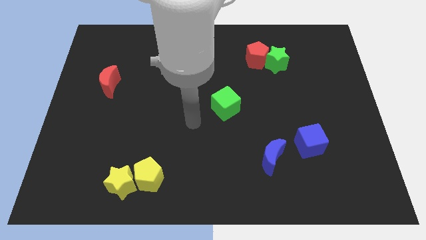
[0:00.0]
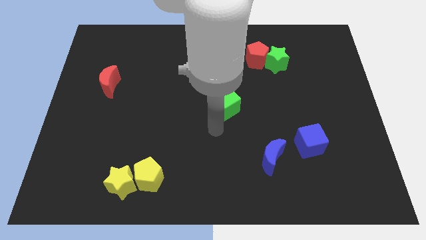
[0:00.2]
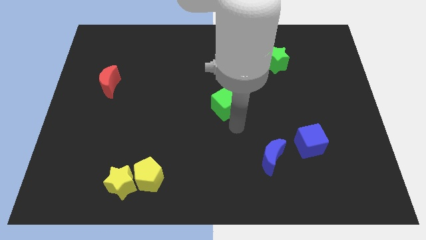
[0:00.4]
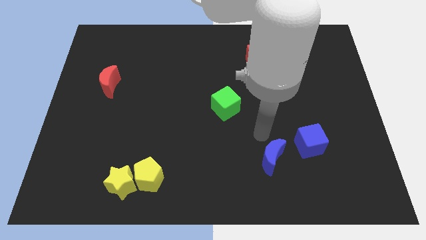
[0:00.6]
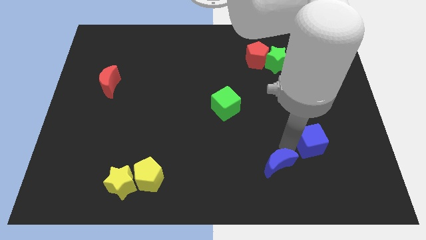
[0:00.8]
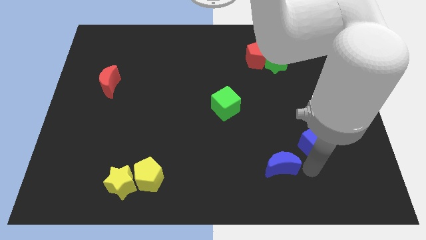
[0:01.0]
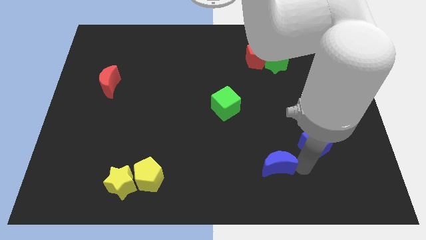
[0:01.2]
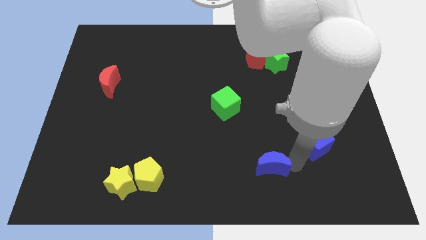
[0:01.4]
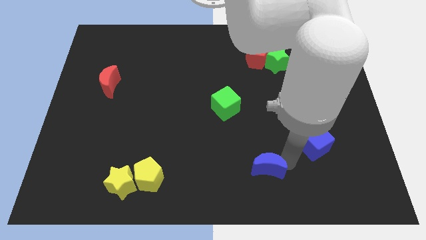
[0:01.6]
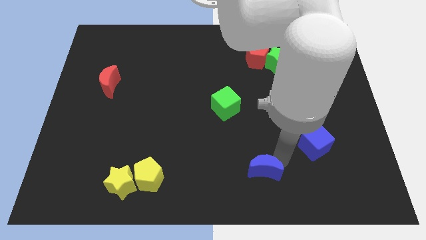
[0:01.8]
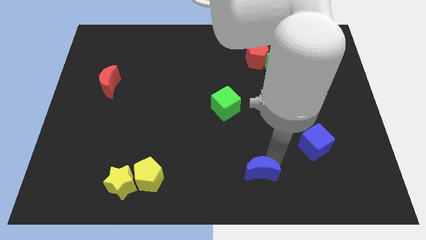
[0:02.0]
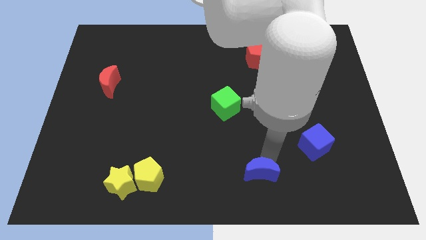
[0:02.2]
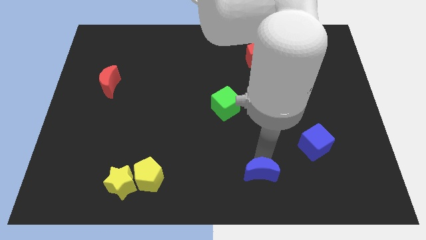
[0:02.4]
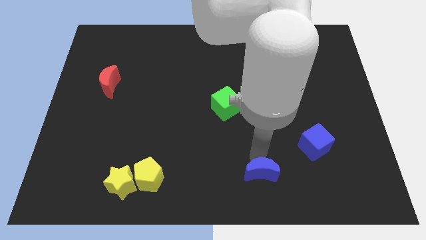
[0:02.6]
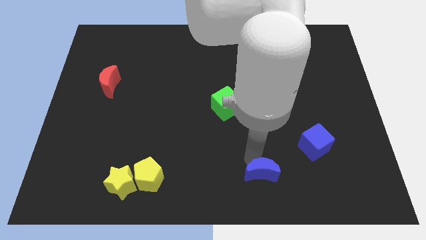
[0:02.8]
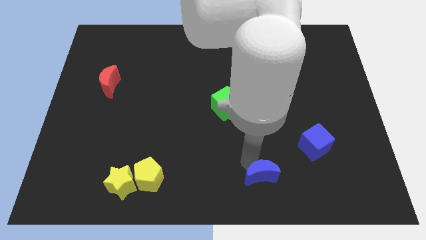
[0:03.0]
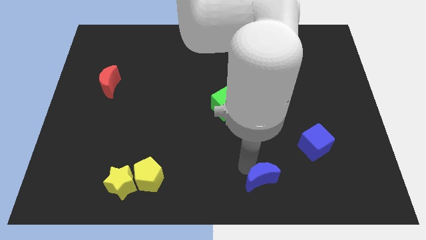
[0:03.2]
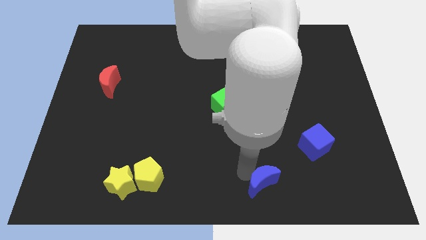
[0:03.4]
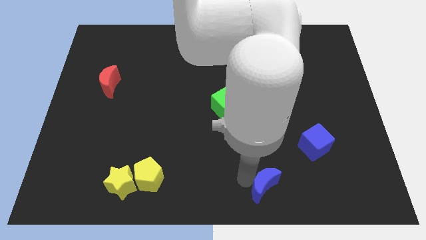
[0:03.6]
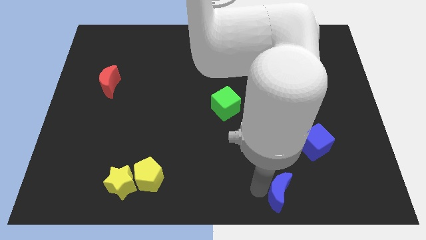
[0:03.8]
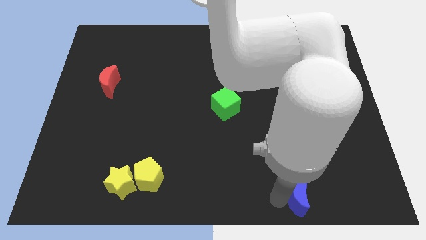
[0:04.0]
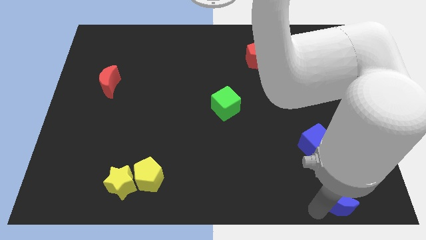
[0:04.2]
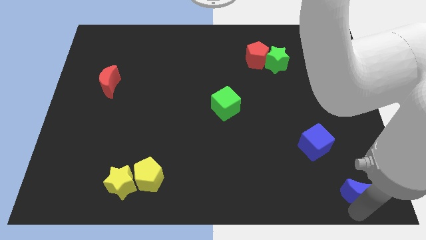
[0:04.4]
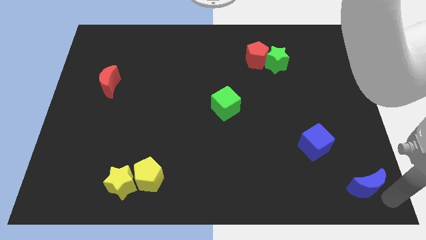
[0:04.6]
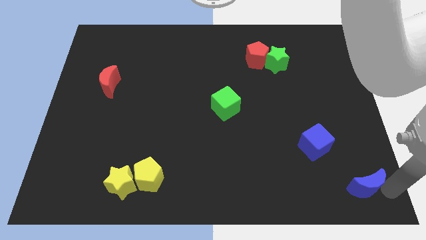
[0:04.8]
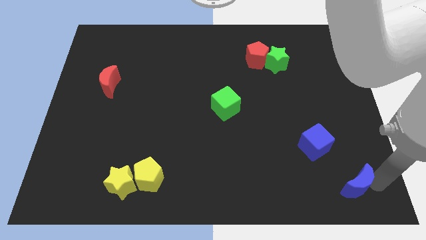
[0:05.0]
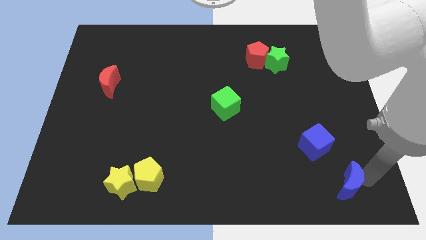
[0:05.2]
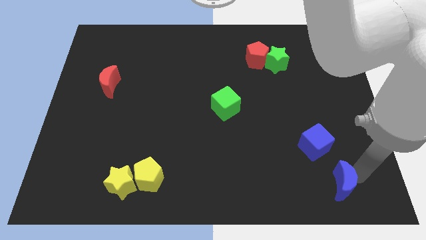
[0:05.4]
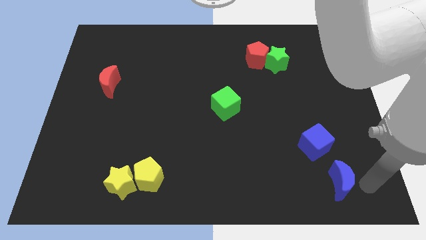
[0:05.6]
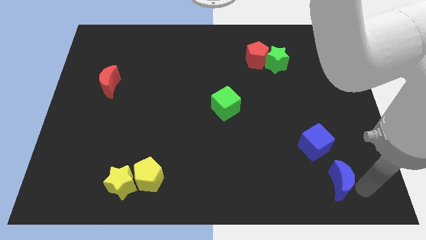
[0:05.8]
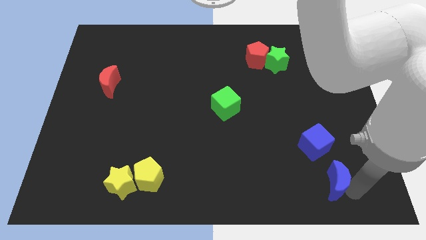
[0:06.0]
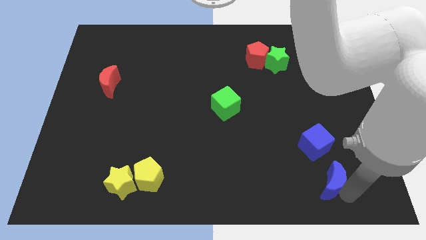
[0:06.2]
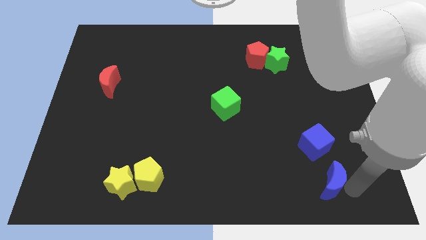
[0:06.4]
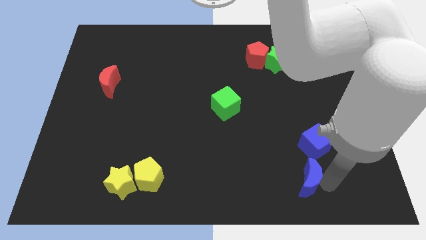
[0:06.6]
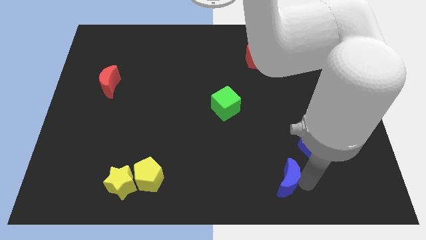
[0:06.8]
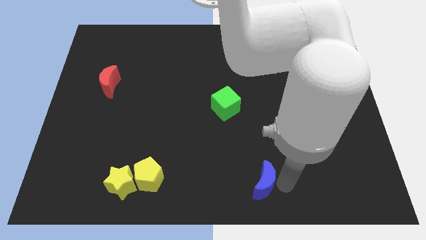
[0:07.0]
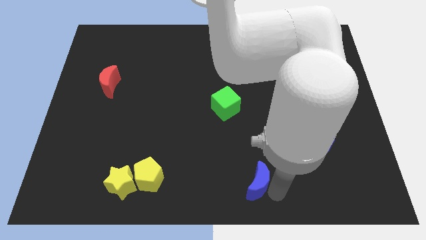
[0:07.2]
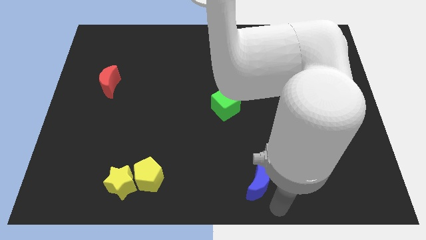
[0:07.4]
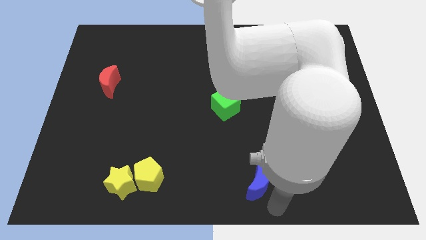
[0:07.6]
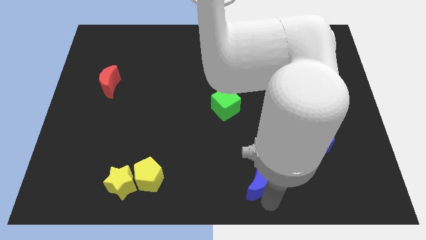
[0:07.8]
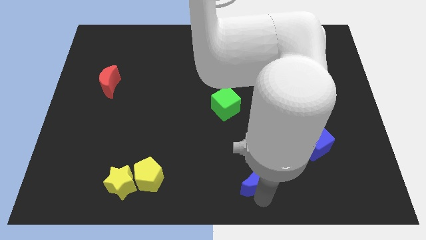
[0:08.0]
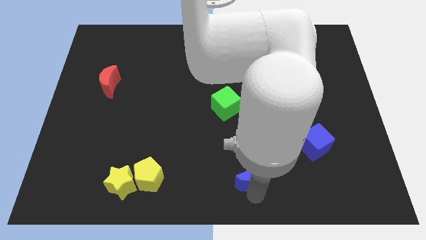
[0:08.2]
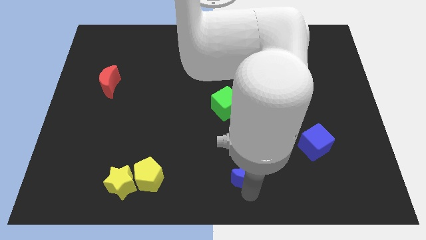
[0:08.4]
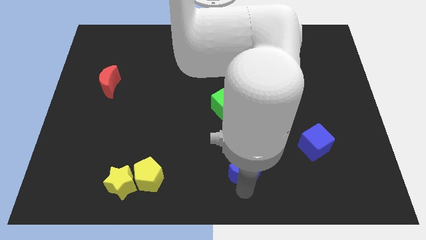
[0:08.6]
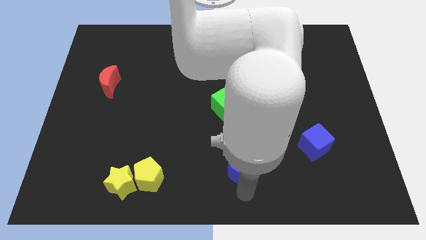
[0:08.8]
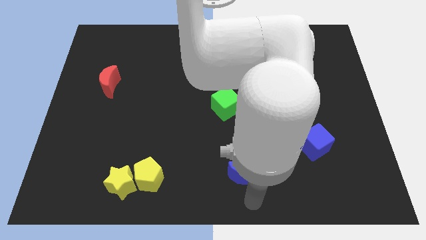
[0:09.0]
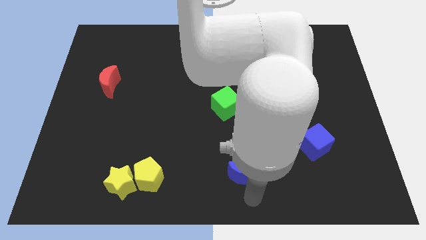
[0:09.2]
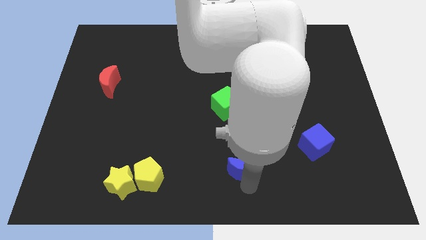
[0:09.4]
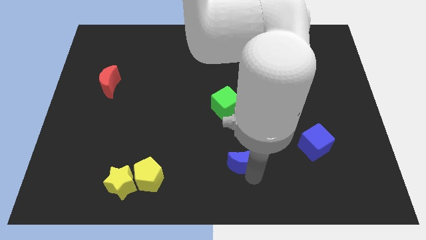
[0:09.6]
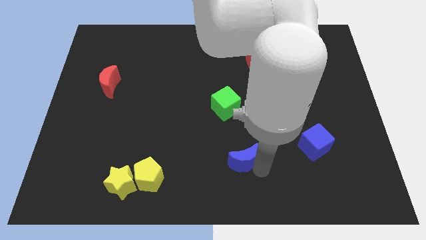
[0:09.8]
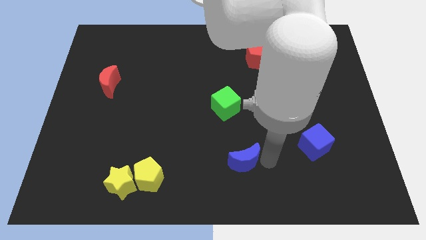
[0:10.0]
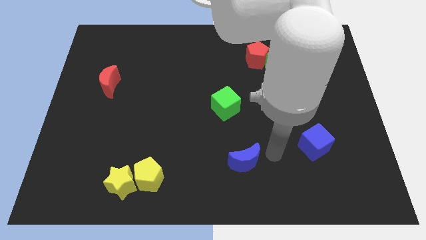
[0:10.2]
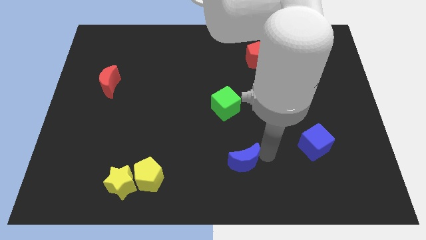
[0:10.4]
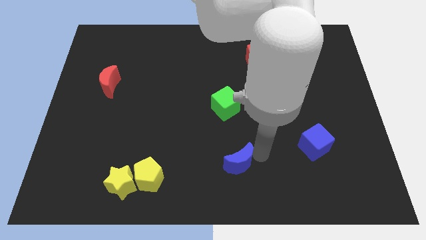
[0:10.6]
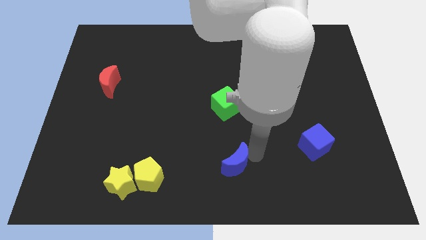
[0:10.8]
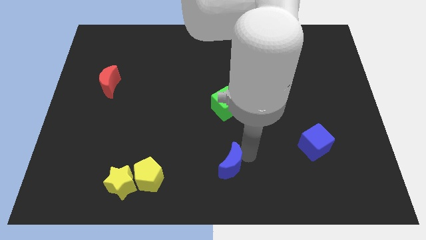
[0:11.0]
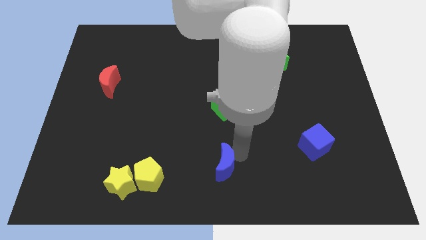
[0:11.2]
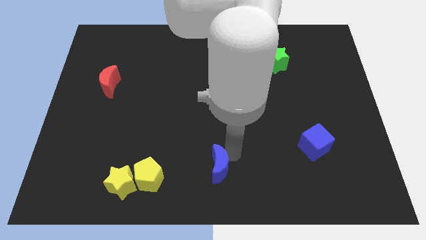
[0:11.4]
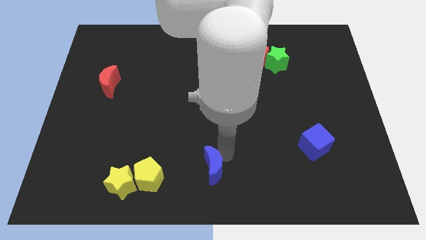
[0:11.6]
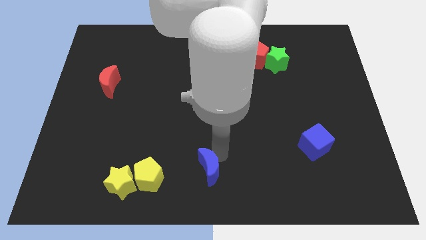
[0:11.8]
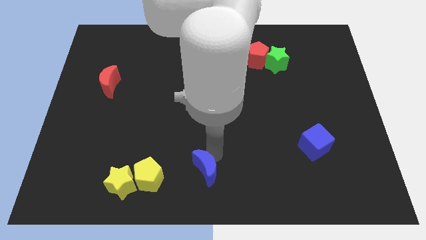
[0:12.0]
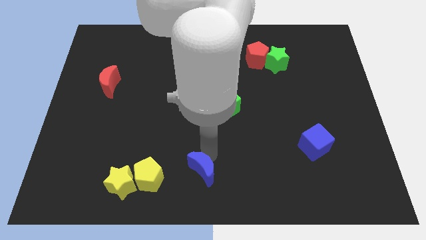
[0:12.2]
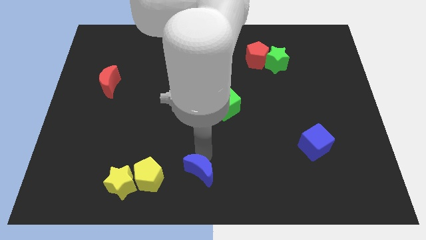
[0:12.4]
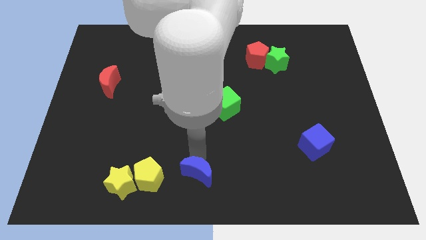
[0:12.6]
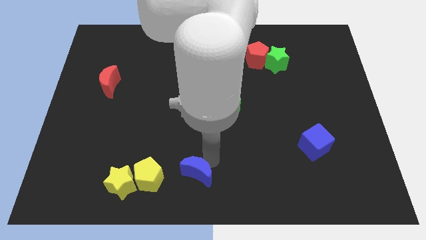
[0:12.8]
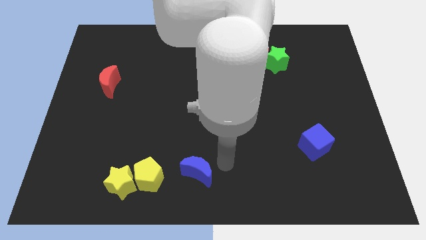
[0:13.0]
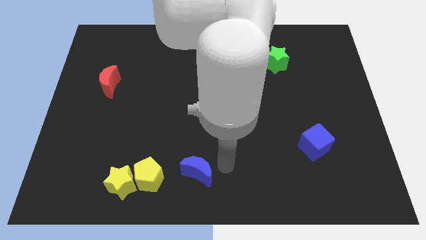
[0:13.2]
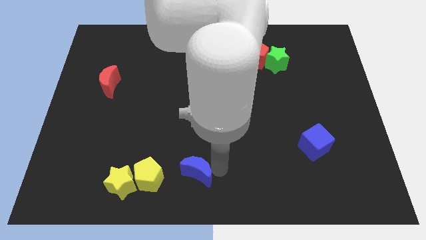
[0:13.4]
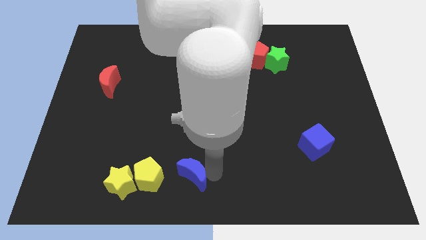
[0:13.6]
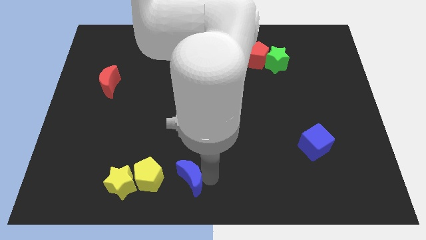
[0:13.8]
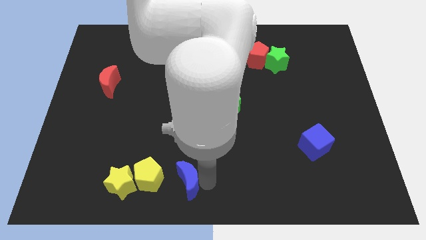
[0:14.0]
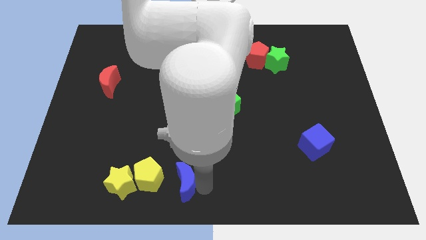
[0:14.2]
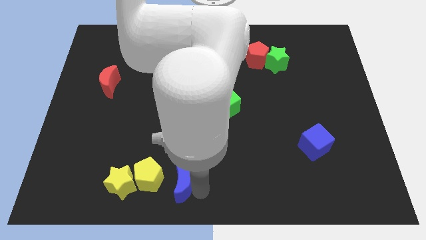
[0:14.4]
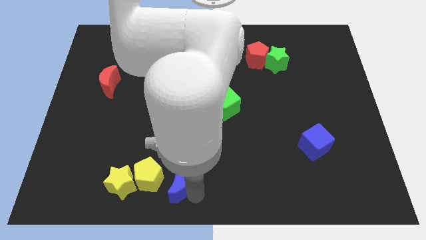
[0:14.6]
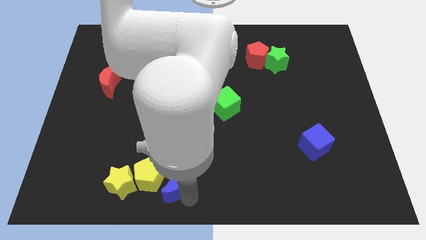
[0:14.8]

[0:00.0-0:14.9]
push the blue moon to the yellow pentagon

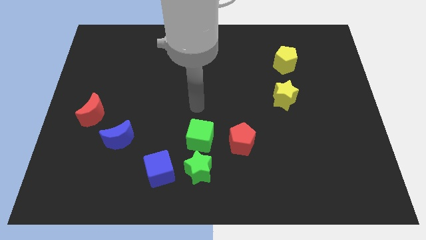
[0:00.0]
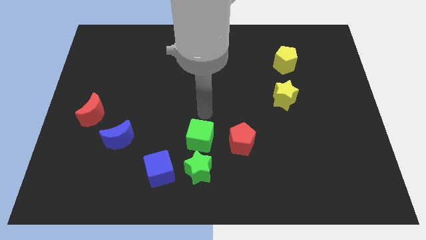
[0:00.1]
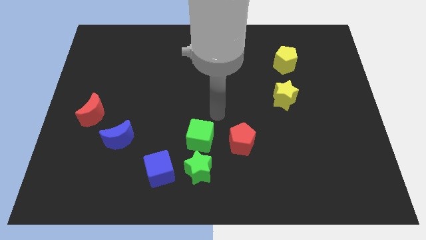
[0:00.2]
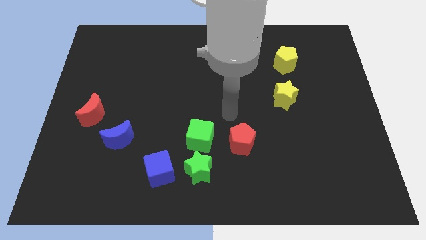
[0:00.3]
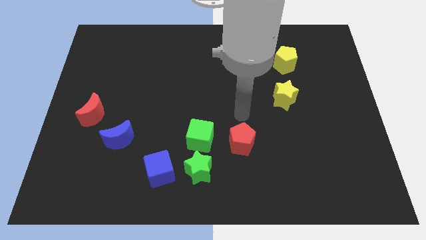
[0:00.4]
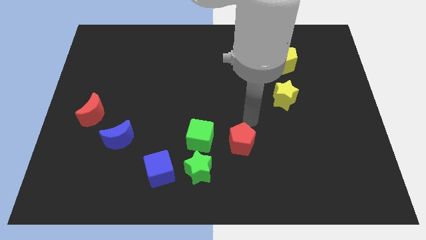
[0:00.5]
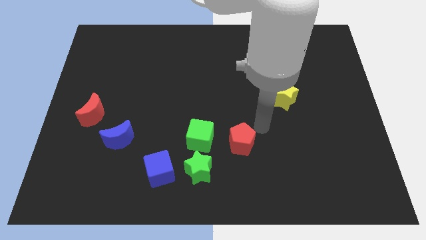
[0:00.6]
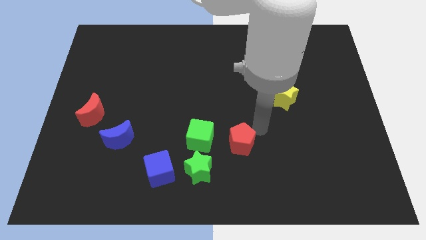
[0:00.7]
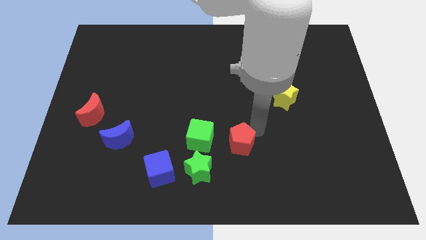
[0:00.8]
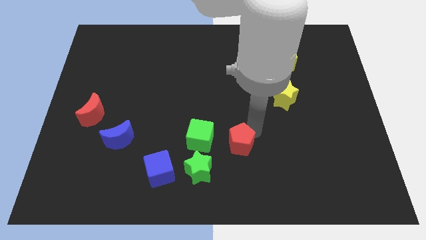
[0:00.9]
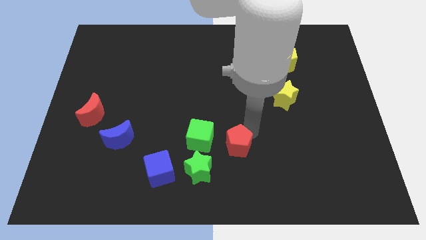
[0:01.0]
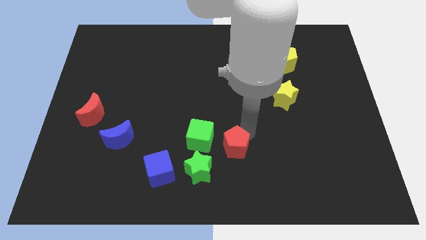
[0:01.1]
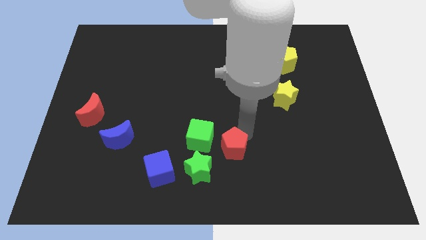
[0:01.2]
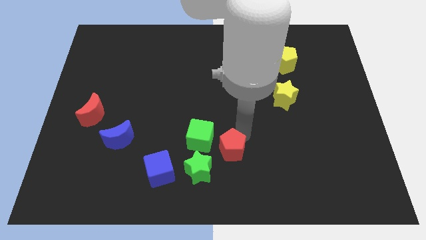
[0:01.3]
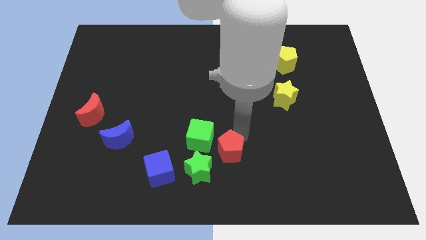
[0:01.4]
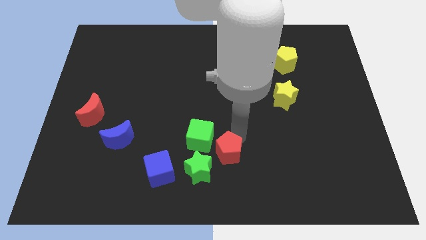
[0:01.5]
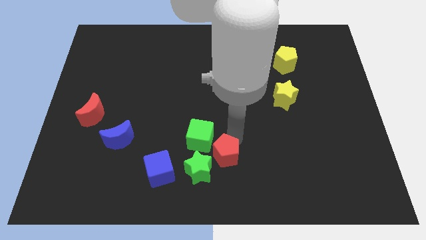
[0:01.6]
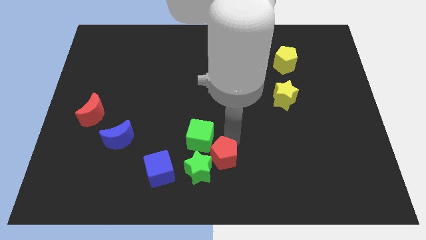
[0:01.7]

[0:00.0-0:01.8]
slide the red pentagon to the green star
